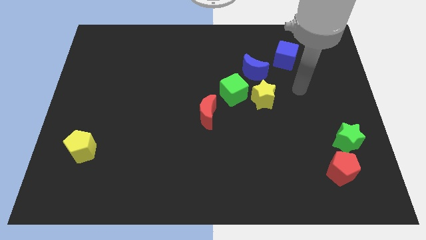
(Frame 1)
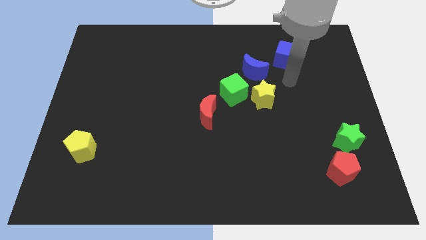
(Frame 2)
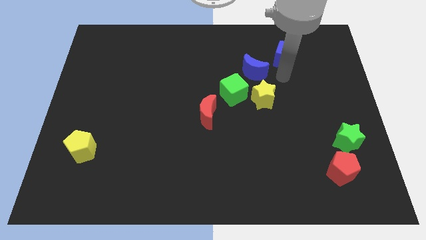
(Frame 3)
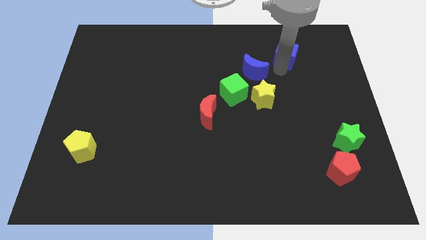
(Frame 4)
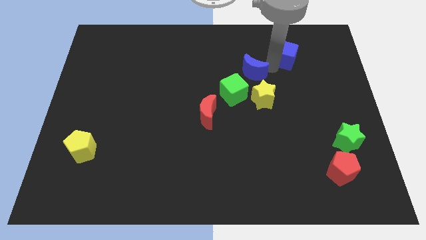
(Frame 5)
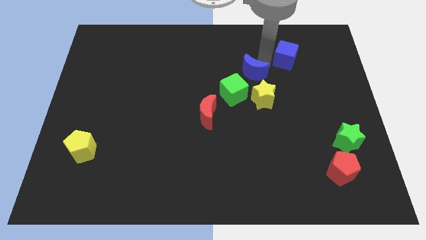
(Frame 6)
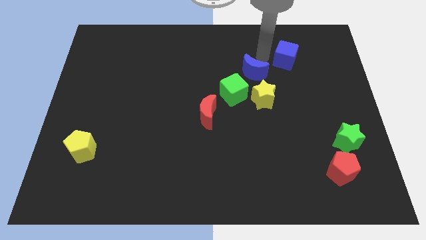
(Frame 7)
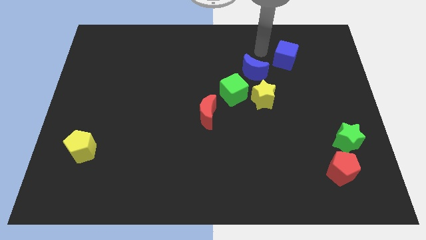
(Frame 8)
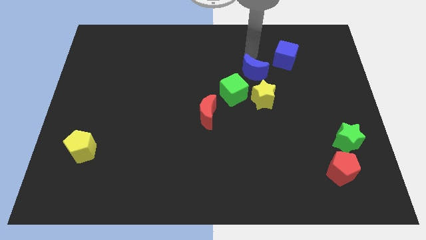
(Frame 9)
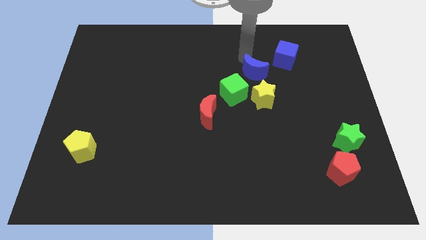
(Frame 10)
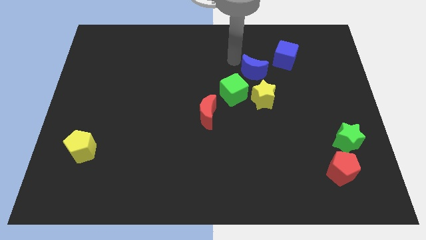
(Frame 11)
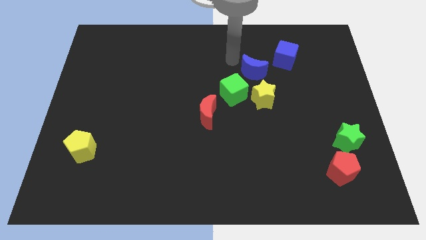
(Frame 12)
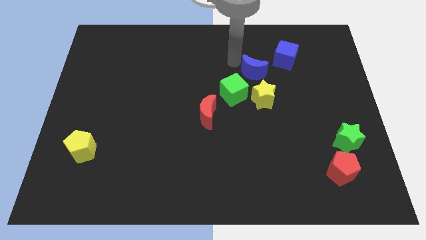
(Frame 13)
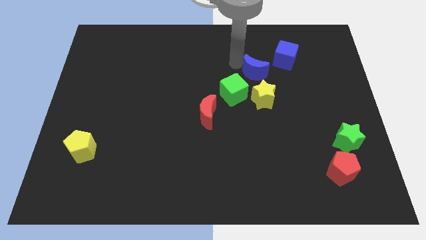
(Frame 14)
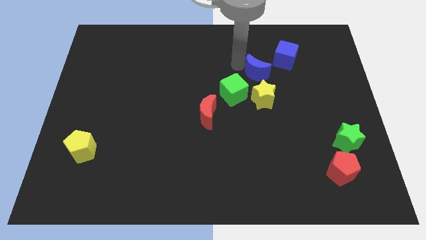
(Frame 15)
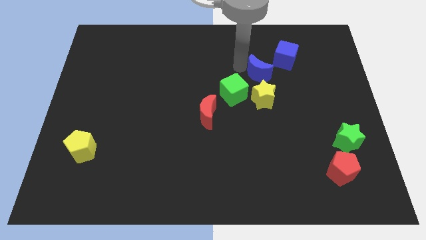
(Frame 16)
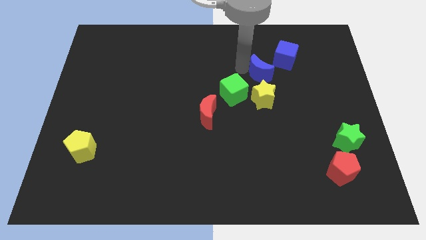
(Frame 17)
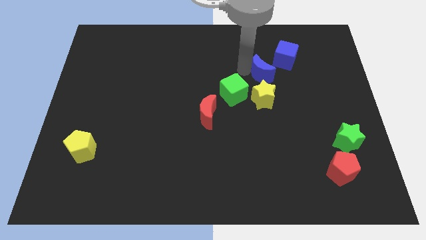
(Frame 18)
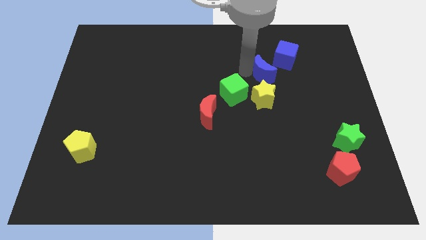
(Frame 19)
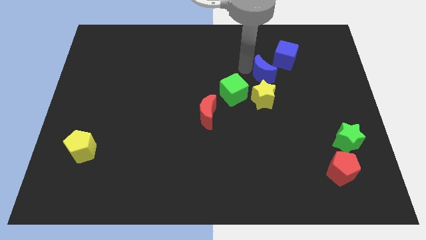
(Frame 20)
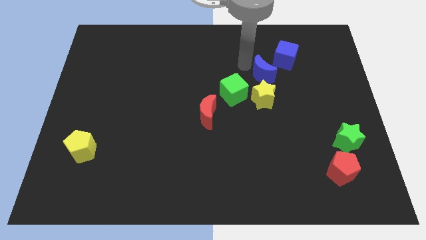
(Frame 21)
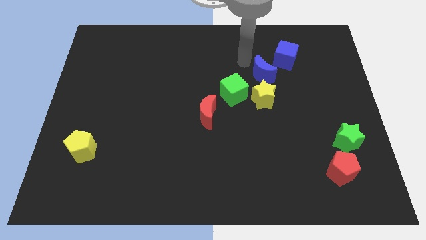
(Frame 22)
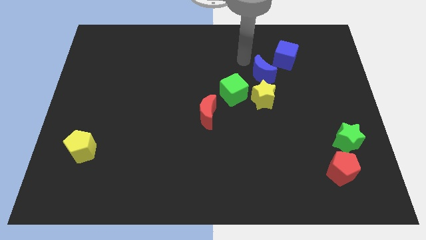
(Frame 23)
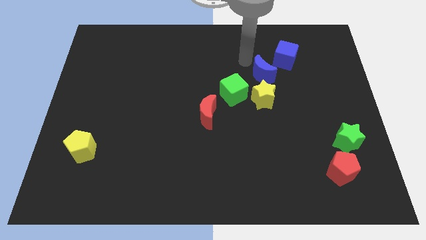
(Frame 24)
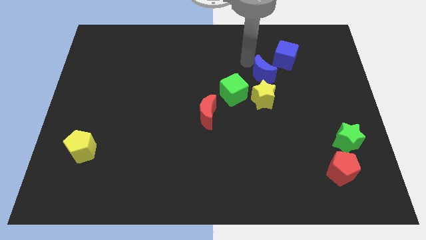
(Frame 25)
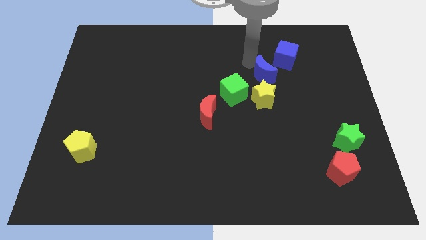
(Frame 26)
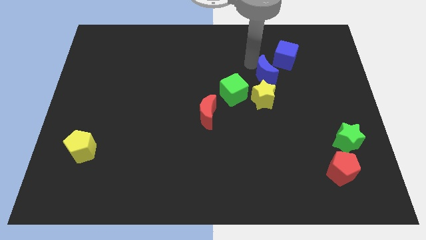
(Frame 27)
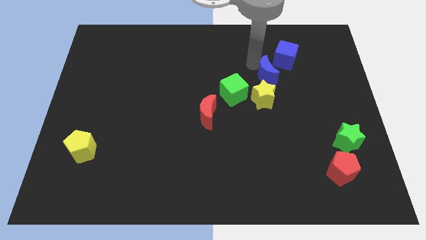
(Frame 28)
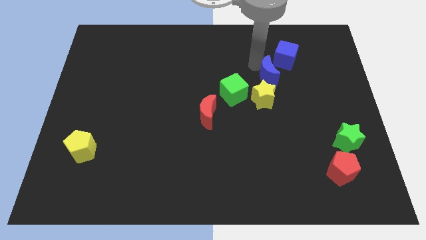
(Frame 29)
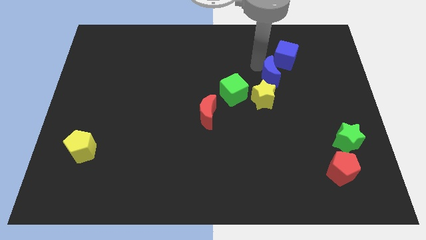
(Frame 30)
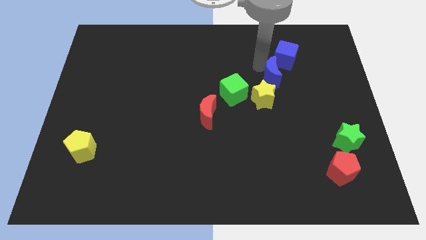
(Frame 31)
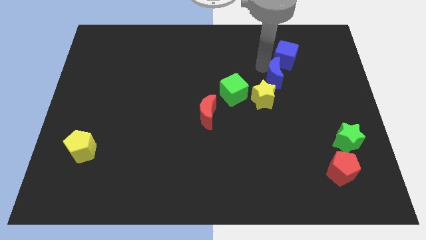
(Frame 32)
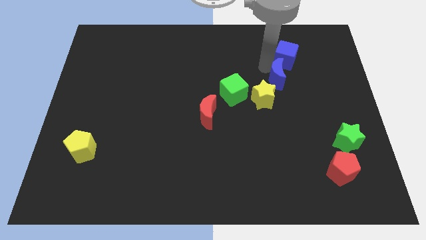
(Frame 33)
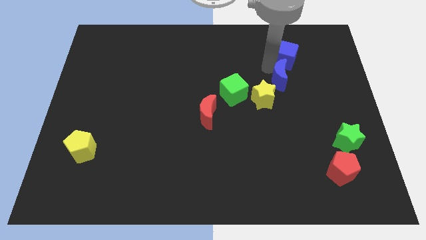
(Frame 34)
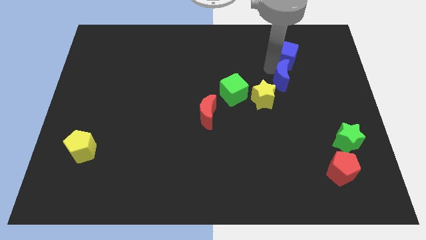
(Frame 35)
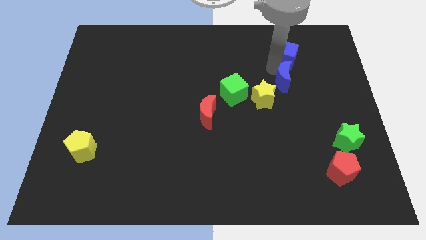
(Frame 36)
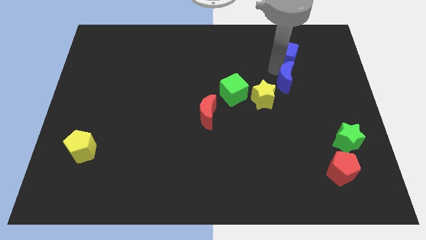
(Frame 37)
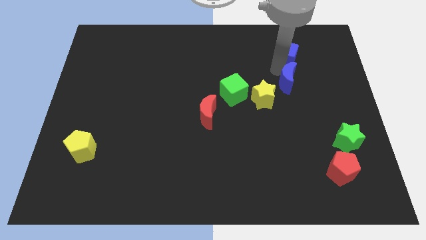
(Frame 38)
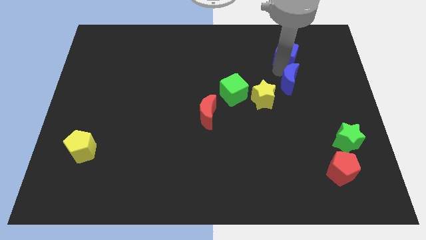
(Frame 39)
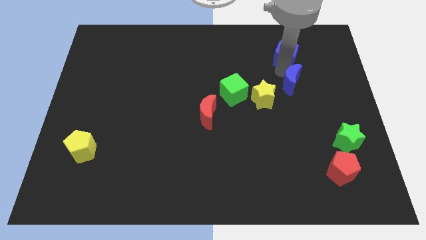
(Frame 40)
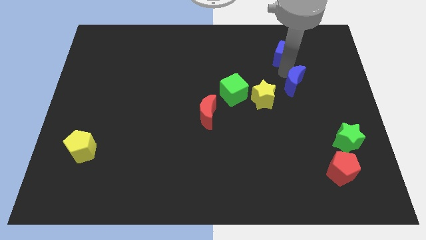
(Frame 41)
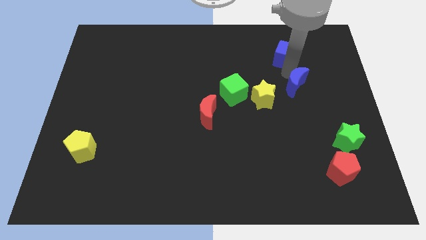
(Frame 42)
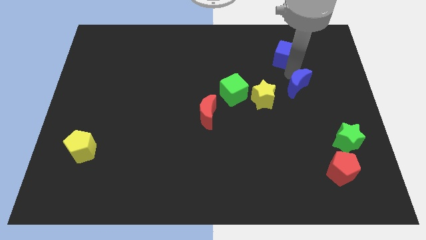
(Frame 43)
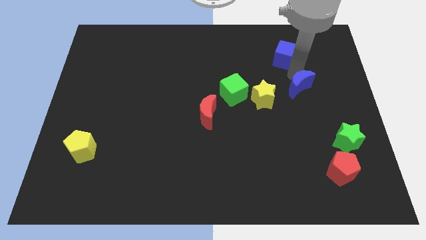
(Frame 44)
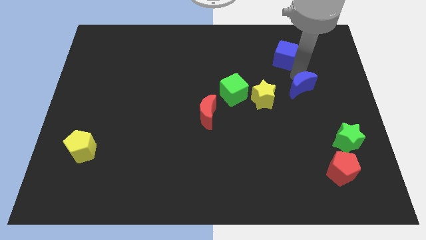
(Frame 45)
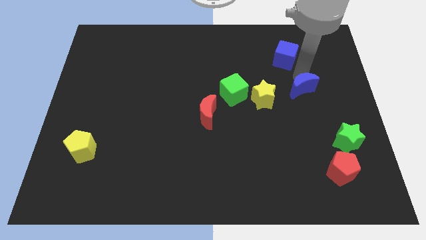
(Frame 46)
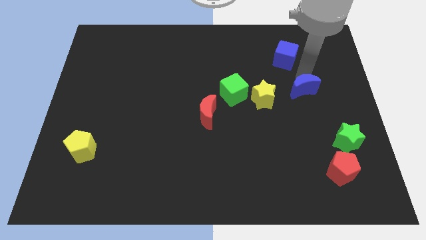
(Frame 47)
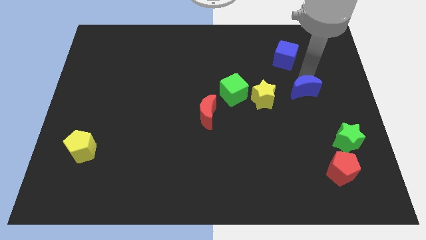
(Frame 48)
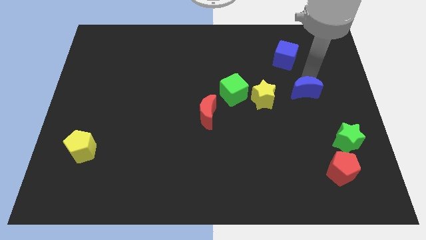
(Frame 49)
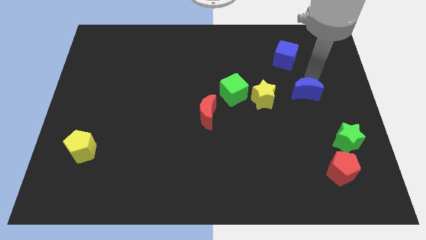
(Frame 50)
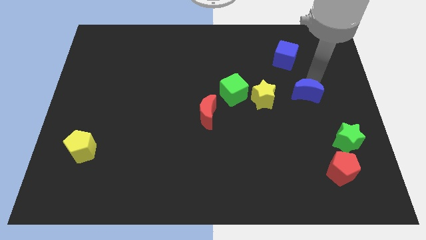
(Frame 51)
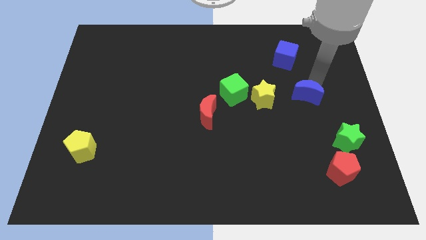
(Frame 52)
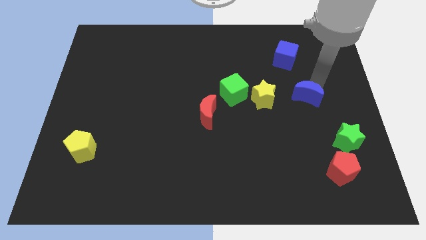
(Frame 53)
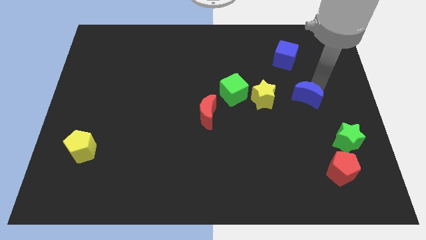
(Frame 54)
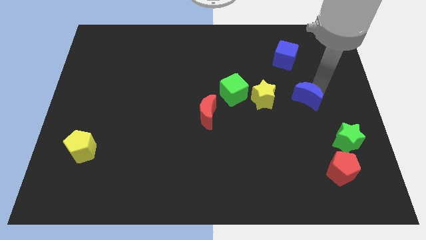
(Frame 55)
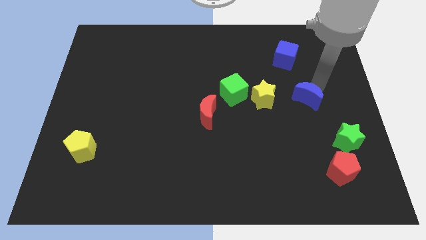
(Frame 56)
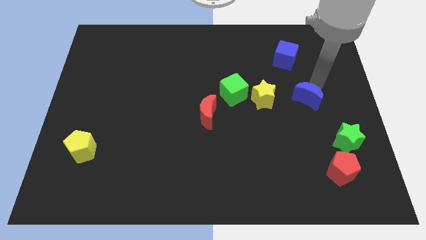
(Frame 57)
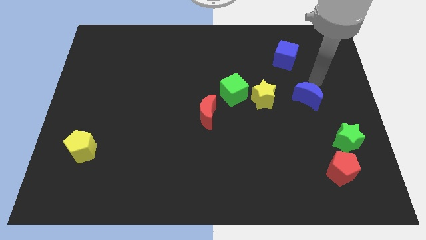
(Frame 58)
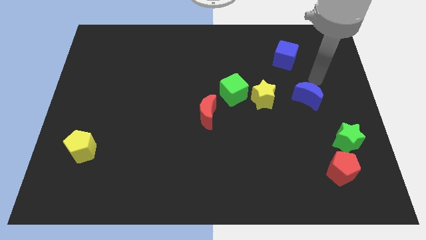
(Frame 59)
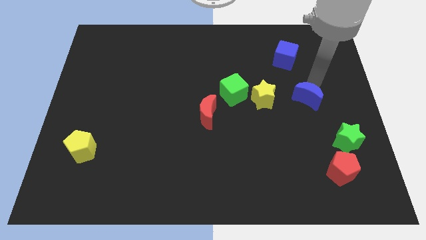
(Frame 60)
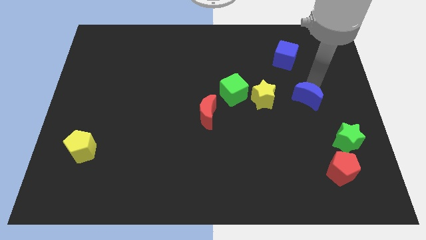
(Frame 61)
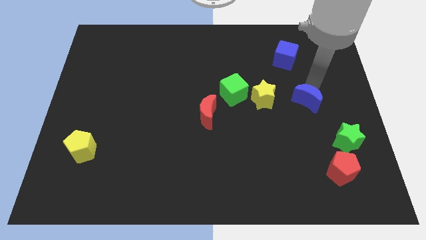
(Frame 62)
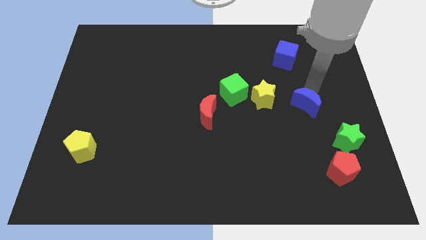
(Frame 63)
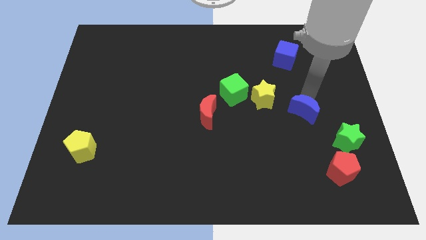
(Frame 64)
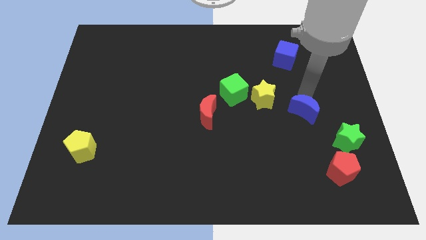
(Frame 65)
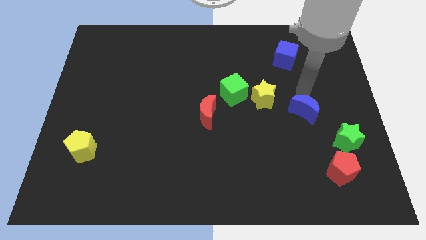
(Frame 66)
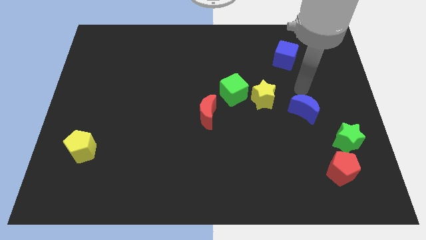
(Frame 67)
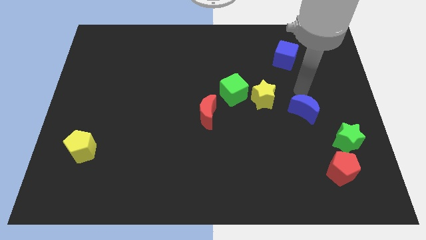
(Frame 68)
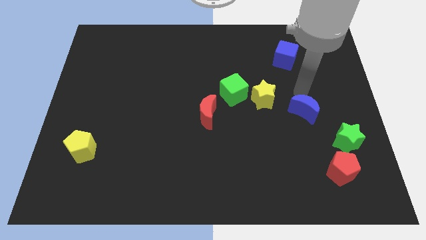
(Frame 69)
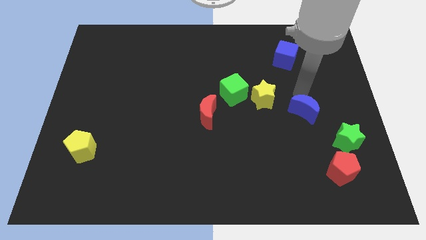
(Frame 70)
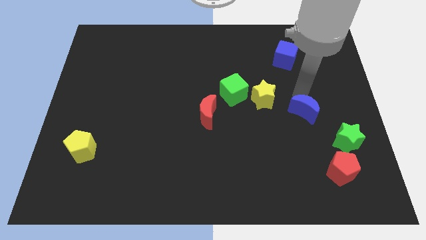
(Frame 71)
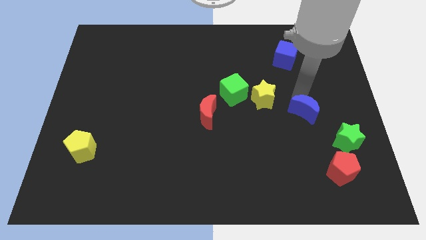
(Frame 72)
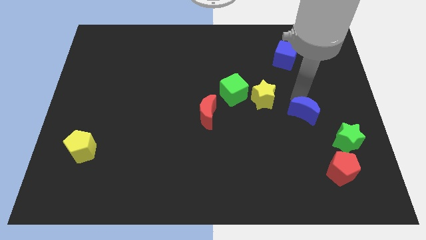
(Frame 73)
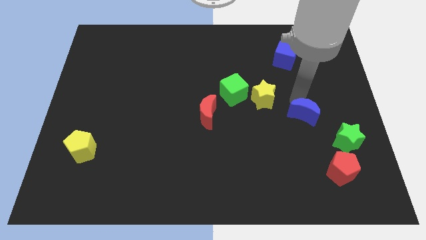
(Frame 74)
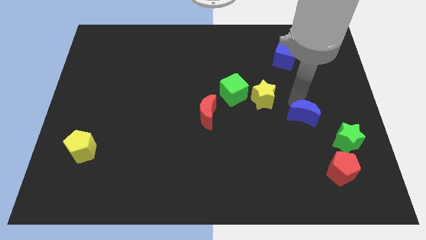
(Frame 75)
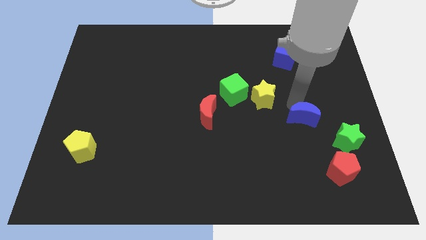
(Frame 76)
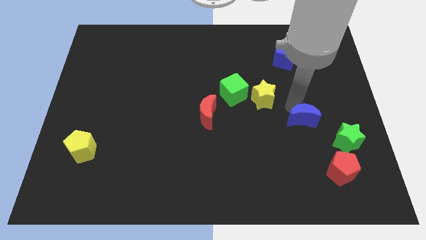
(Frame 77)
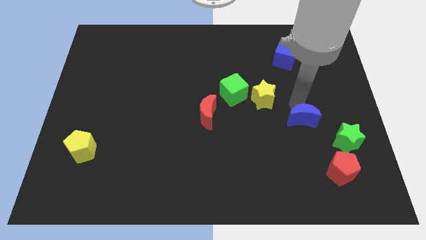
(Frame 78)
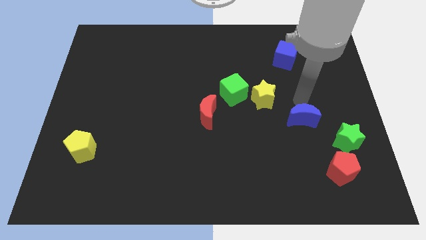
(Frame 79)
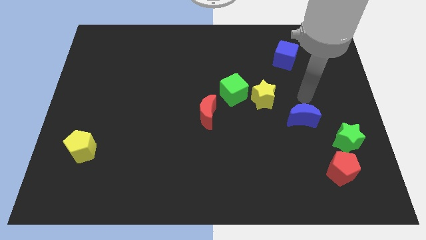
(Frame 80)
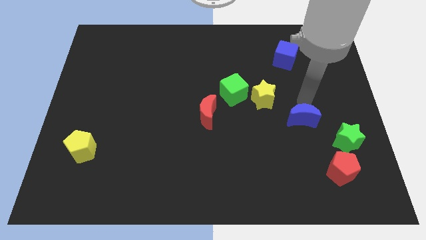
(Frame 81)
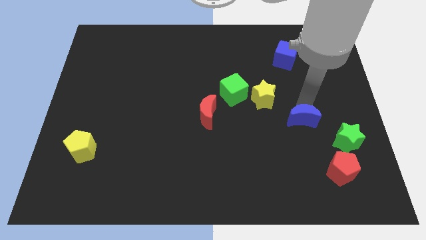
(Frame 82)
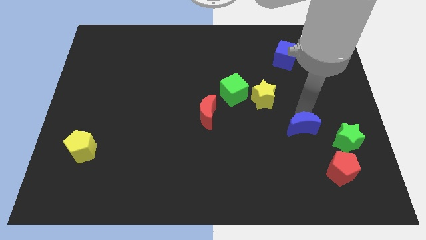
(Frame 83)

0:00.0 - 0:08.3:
put the blue moon left of the green star

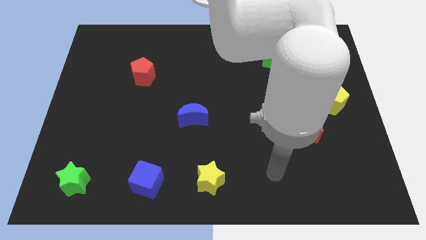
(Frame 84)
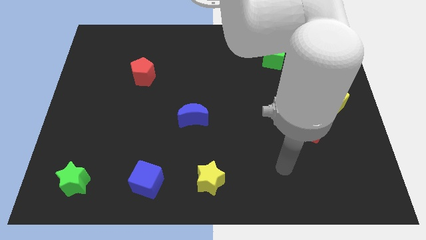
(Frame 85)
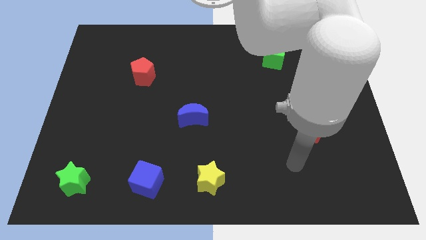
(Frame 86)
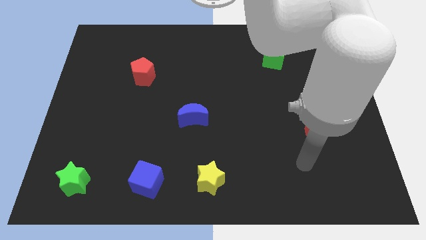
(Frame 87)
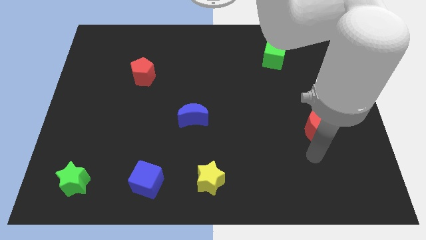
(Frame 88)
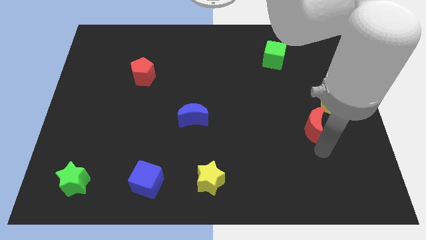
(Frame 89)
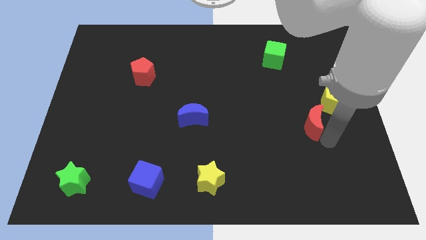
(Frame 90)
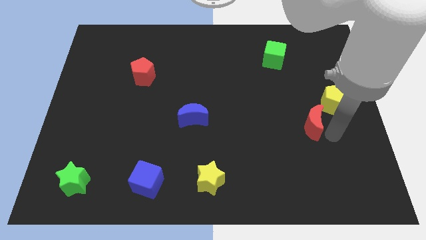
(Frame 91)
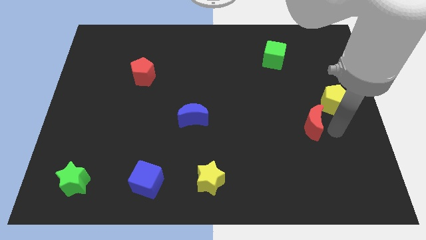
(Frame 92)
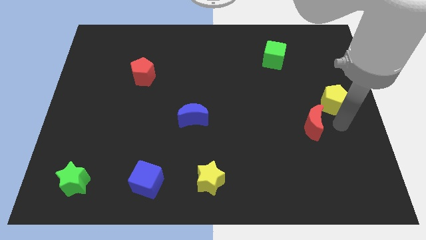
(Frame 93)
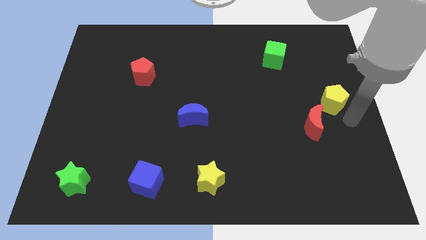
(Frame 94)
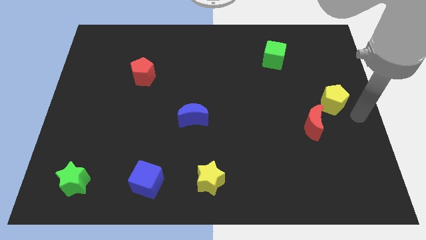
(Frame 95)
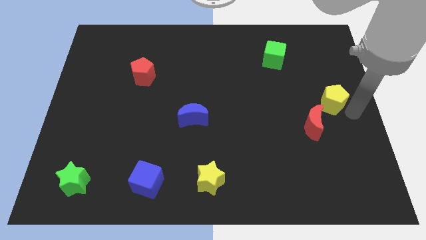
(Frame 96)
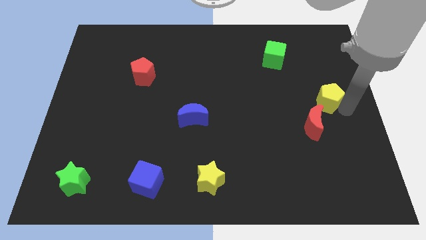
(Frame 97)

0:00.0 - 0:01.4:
put the yellow pentagon above the red moon
